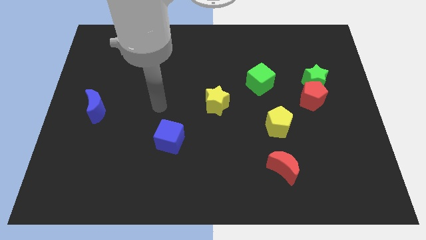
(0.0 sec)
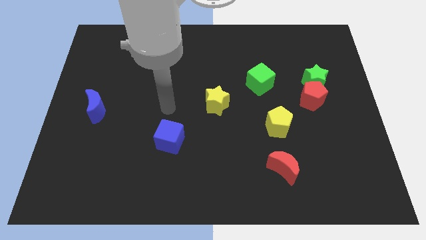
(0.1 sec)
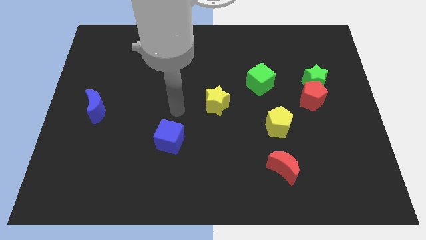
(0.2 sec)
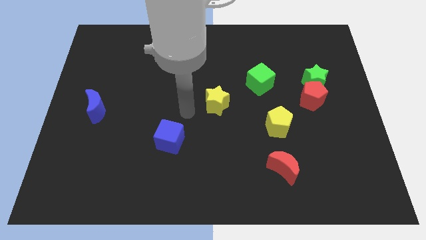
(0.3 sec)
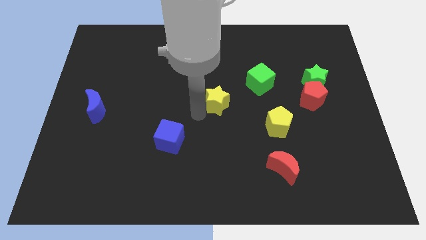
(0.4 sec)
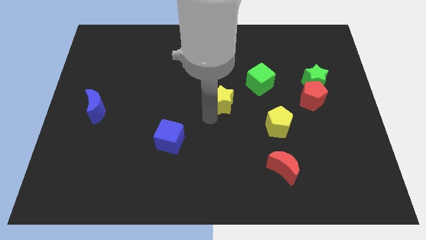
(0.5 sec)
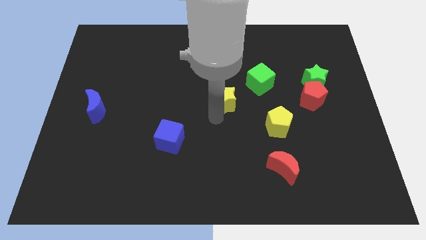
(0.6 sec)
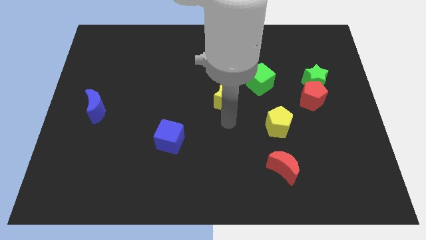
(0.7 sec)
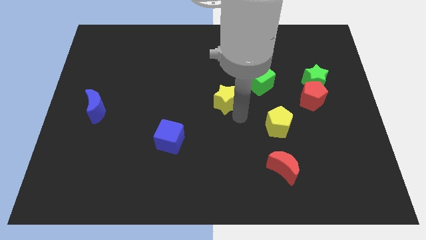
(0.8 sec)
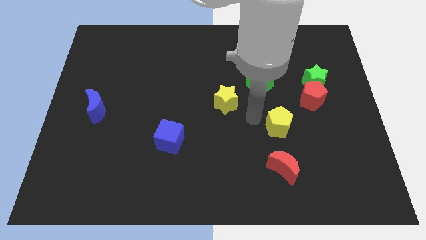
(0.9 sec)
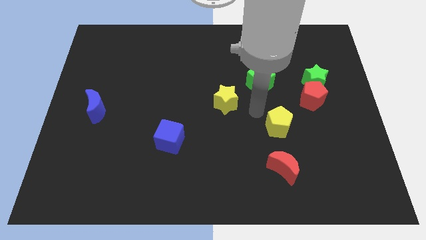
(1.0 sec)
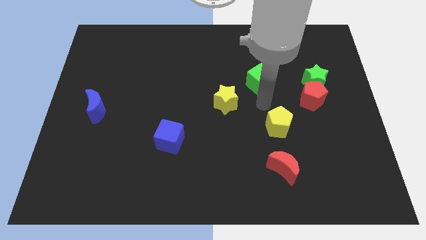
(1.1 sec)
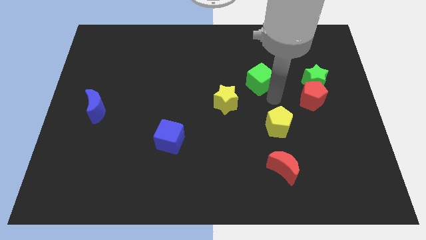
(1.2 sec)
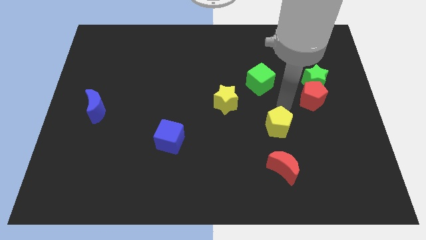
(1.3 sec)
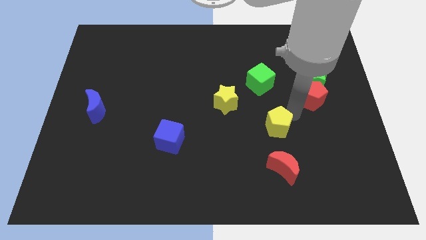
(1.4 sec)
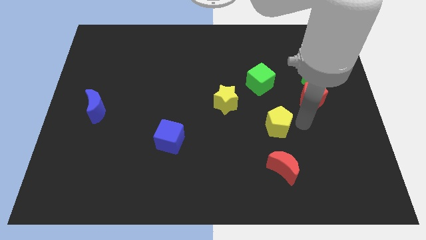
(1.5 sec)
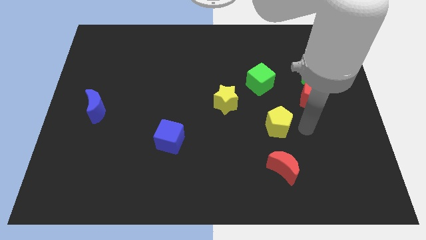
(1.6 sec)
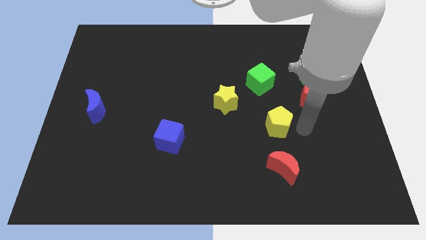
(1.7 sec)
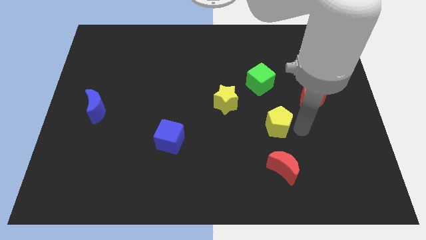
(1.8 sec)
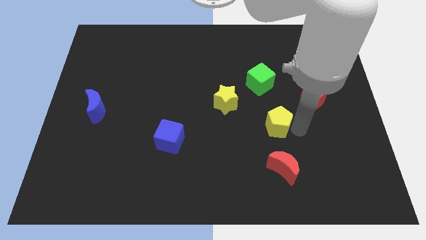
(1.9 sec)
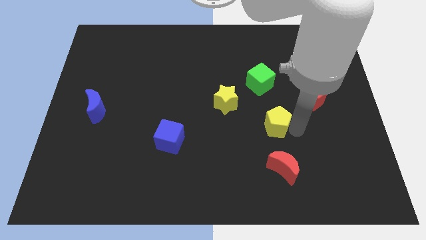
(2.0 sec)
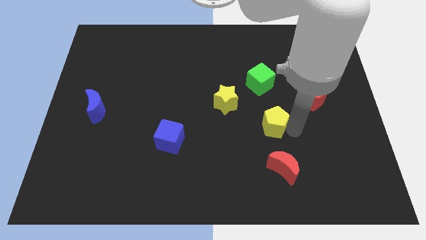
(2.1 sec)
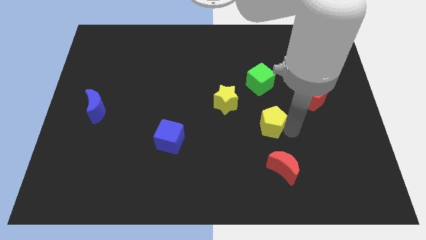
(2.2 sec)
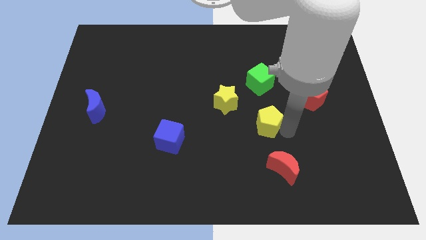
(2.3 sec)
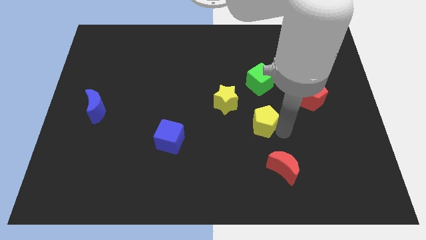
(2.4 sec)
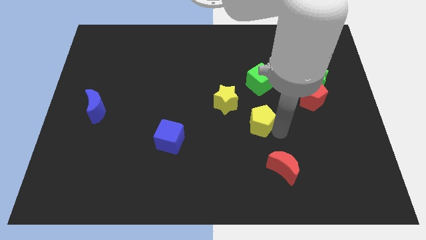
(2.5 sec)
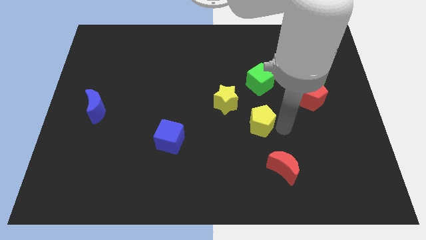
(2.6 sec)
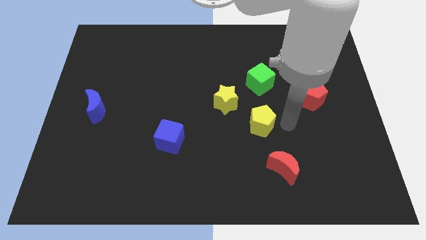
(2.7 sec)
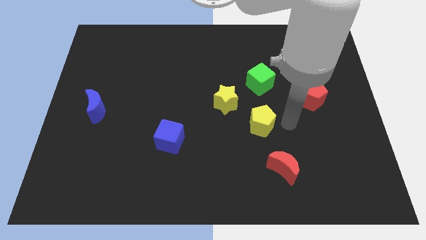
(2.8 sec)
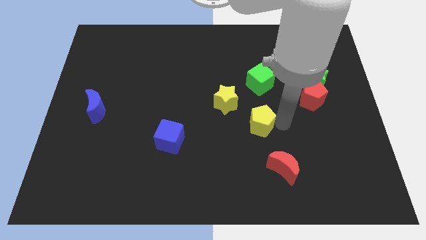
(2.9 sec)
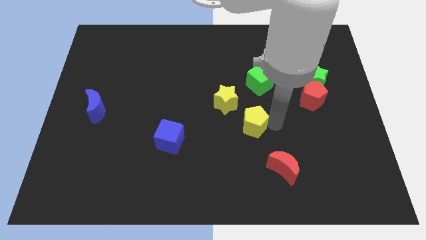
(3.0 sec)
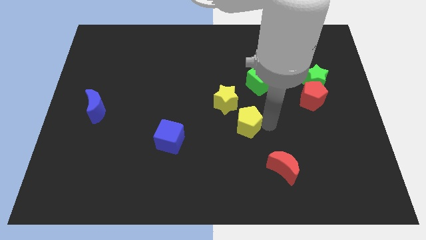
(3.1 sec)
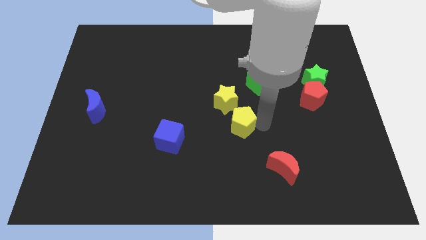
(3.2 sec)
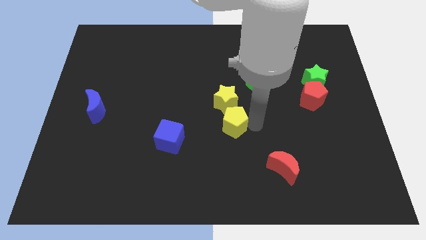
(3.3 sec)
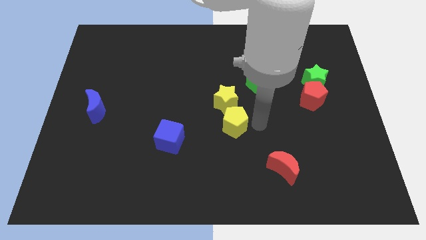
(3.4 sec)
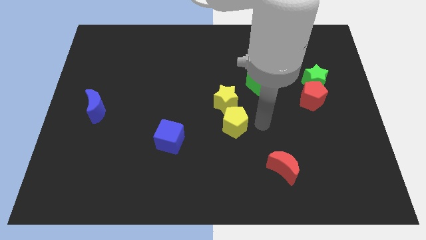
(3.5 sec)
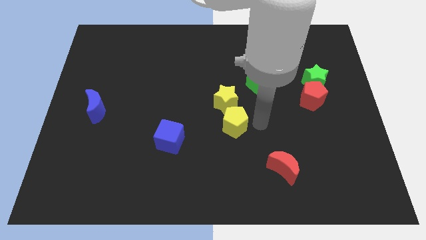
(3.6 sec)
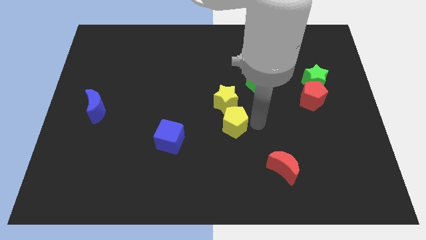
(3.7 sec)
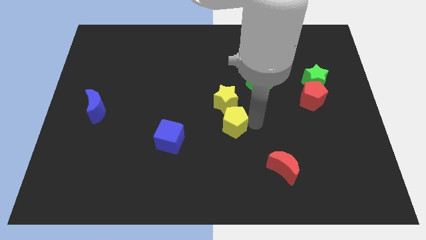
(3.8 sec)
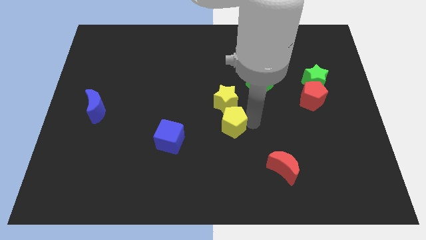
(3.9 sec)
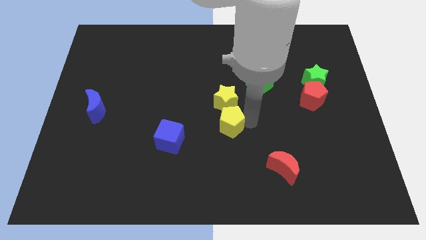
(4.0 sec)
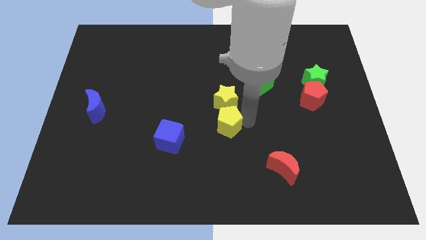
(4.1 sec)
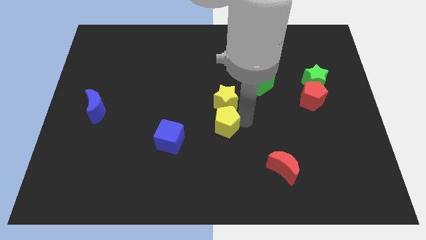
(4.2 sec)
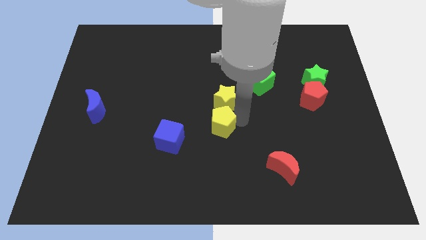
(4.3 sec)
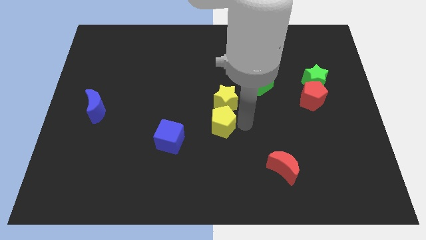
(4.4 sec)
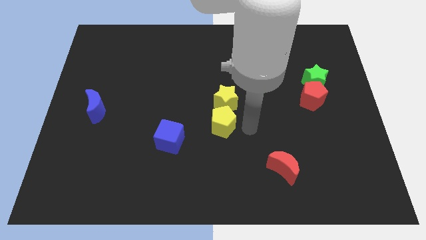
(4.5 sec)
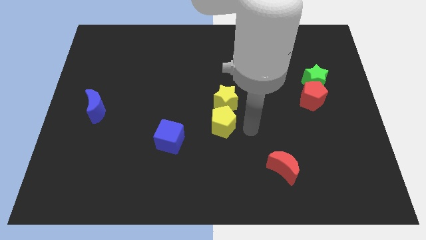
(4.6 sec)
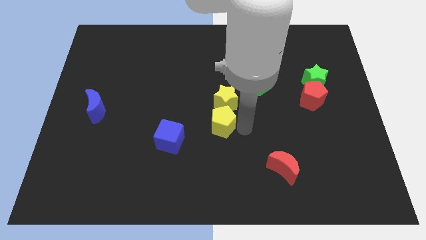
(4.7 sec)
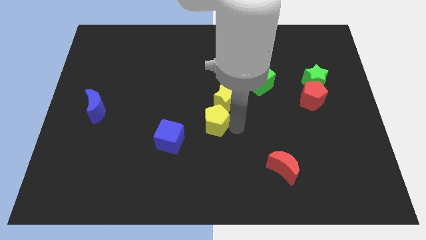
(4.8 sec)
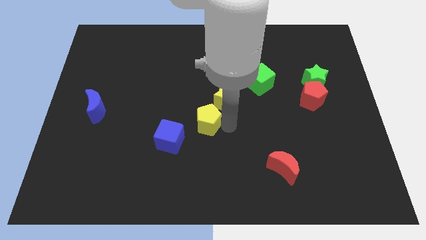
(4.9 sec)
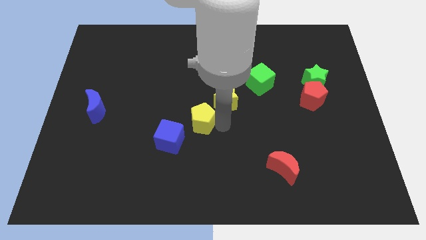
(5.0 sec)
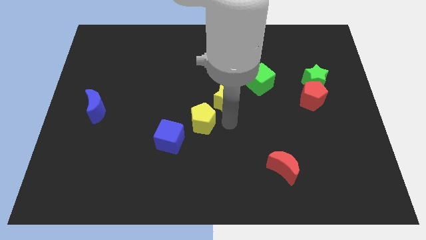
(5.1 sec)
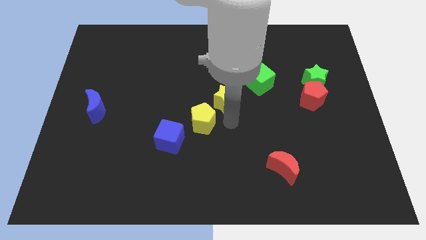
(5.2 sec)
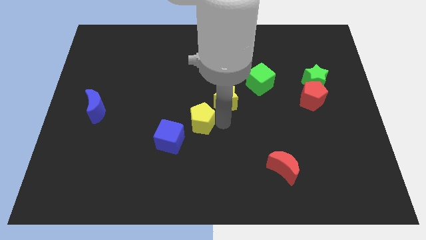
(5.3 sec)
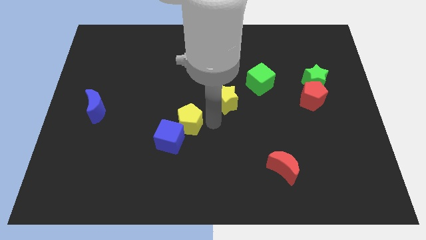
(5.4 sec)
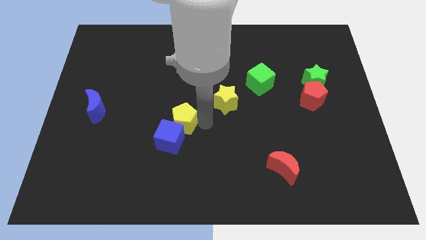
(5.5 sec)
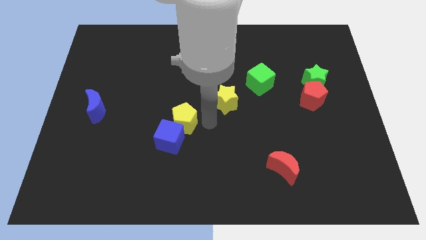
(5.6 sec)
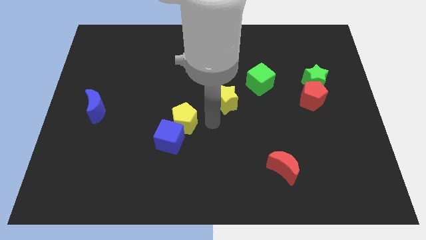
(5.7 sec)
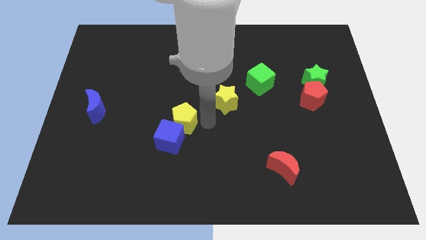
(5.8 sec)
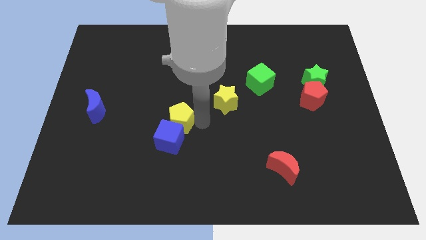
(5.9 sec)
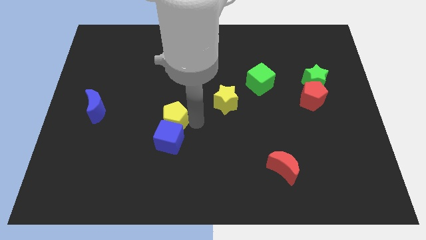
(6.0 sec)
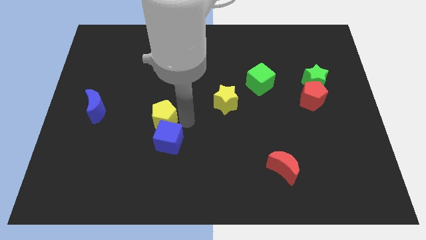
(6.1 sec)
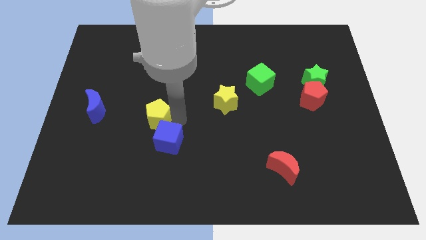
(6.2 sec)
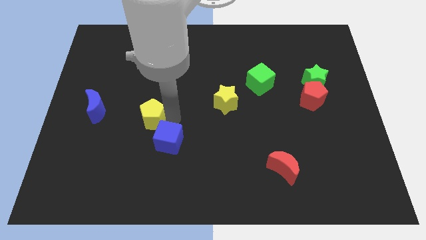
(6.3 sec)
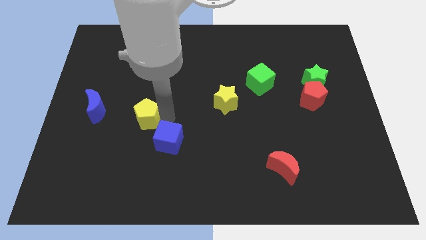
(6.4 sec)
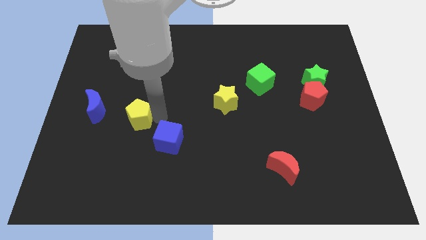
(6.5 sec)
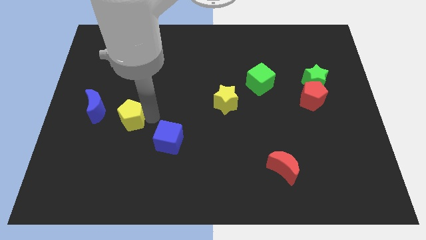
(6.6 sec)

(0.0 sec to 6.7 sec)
slide the yellow pentagon to the bottom right of the blue moon

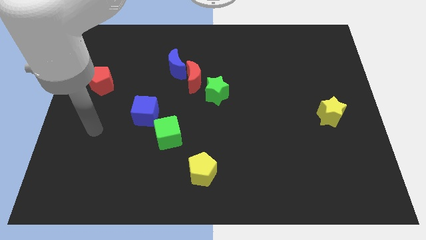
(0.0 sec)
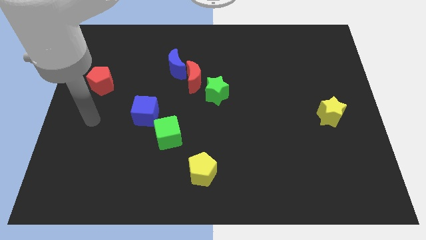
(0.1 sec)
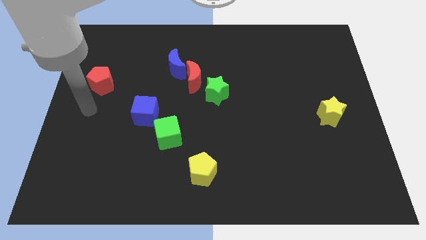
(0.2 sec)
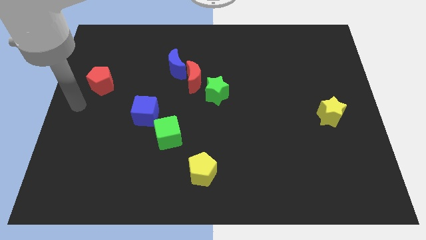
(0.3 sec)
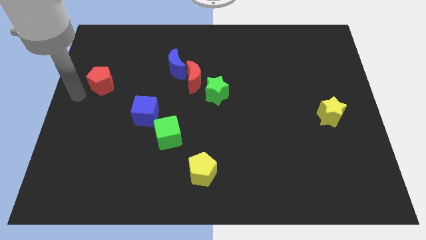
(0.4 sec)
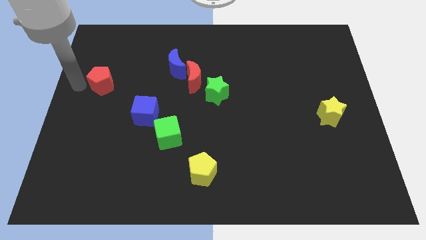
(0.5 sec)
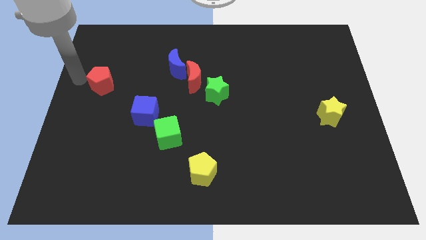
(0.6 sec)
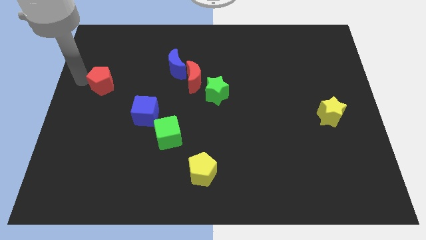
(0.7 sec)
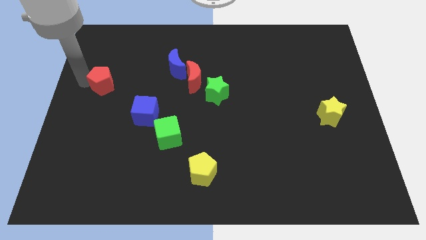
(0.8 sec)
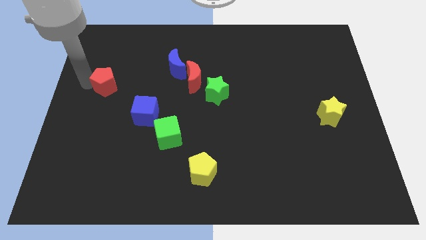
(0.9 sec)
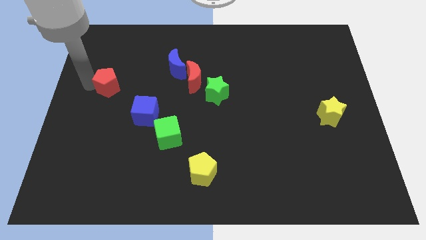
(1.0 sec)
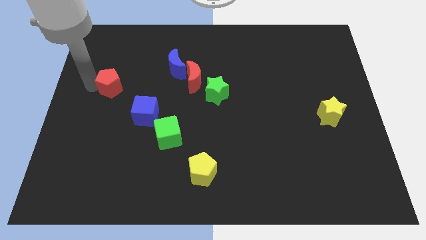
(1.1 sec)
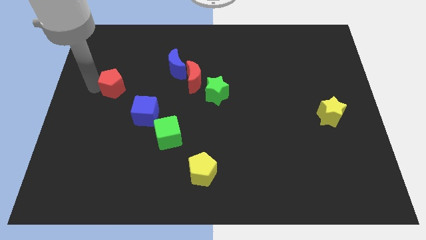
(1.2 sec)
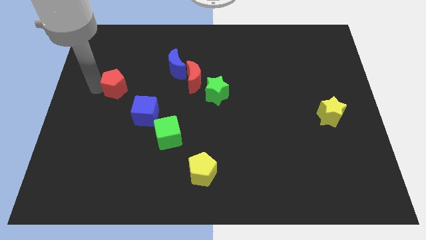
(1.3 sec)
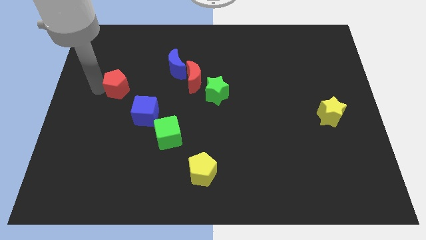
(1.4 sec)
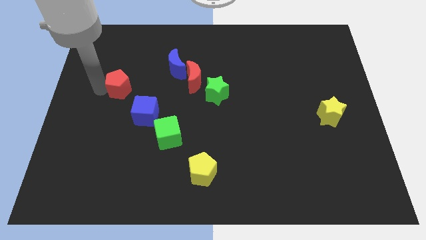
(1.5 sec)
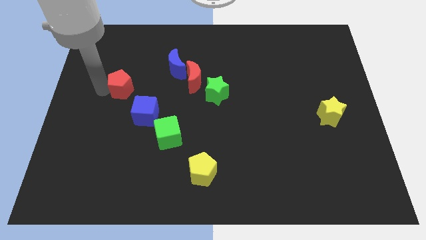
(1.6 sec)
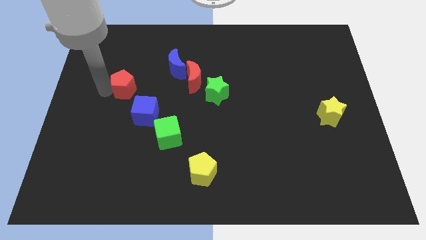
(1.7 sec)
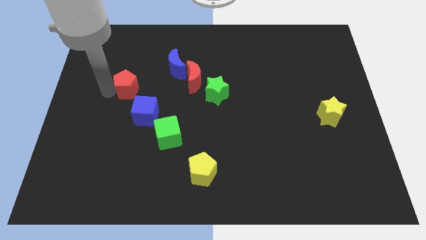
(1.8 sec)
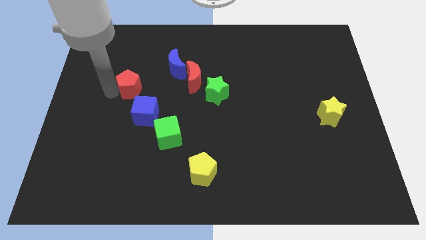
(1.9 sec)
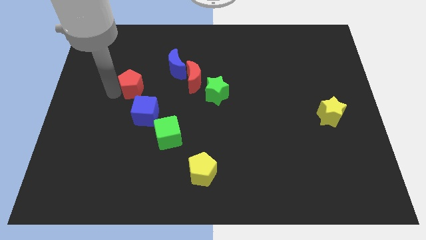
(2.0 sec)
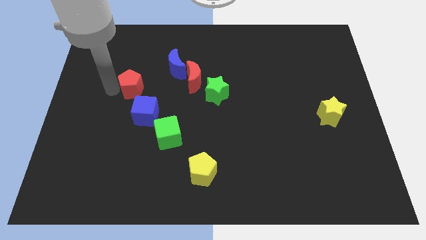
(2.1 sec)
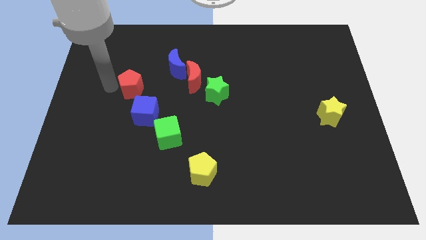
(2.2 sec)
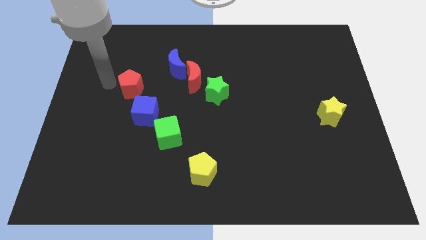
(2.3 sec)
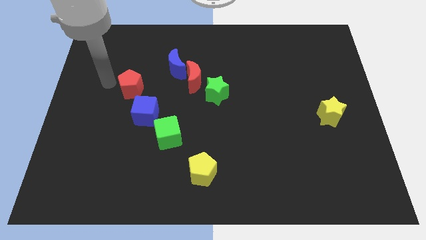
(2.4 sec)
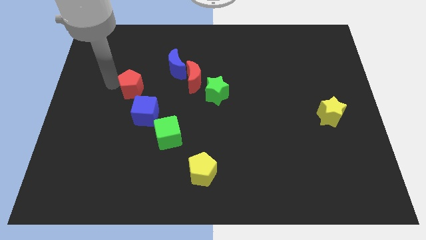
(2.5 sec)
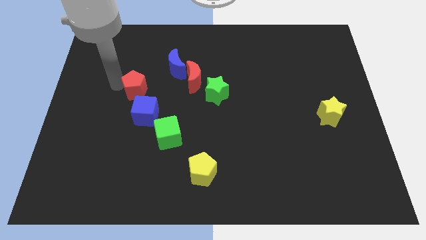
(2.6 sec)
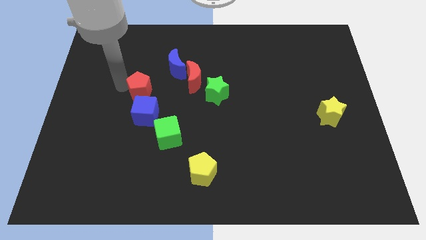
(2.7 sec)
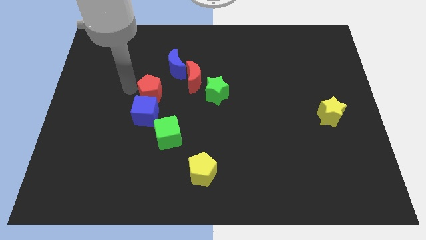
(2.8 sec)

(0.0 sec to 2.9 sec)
move the red pentagon to the left of the green star
